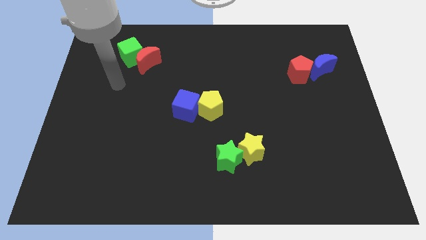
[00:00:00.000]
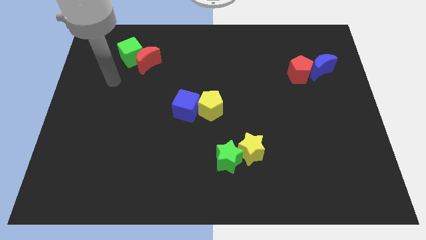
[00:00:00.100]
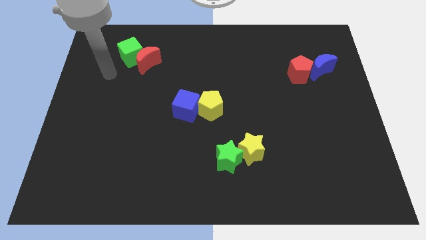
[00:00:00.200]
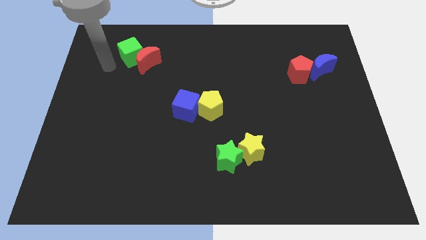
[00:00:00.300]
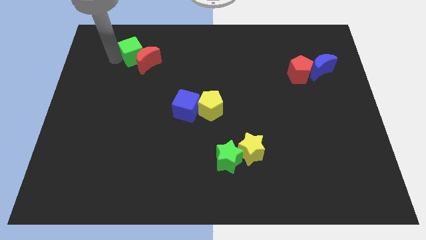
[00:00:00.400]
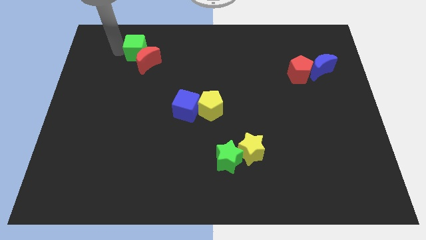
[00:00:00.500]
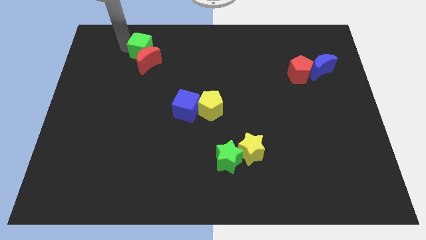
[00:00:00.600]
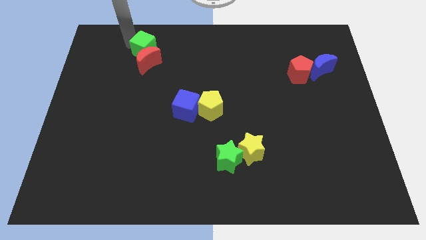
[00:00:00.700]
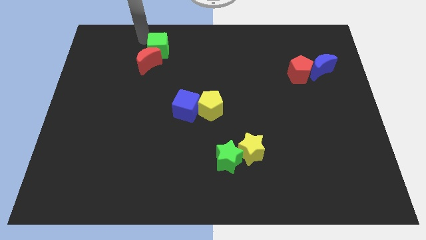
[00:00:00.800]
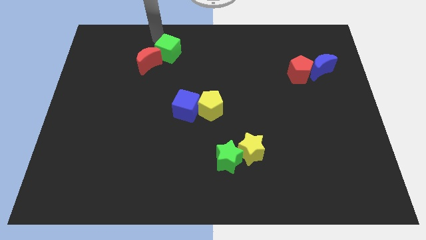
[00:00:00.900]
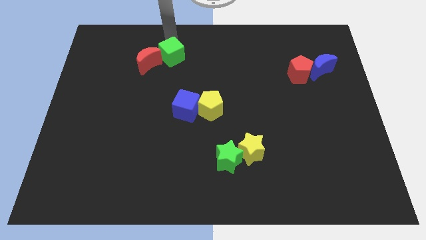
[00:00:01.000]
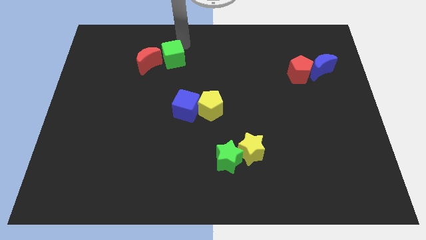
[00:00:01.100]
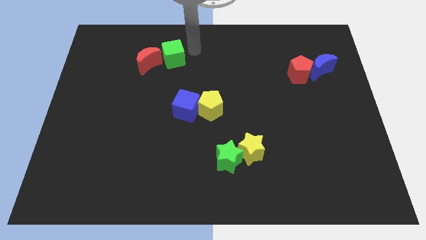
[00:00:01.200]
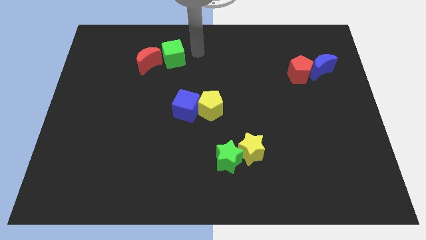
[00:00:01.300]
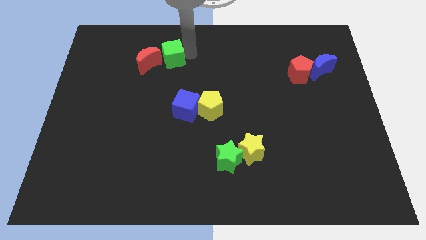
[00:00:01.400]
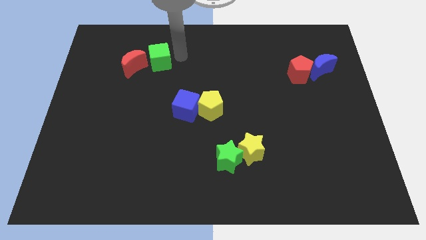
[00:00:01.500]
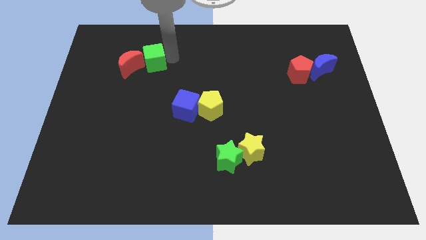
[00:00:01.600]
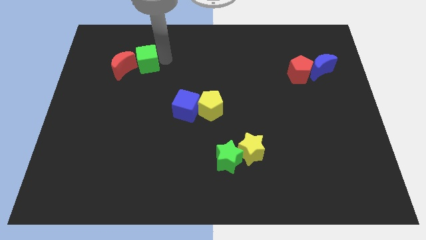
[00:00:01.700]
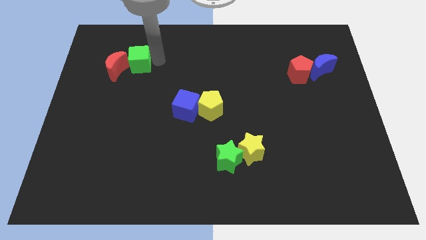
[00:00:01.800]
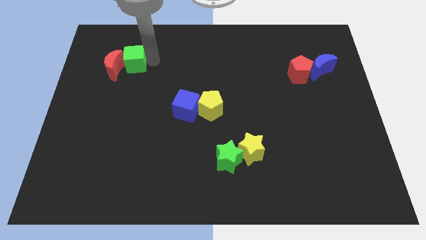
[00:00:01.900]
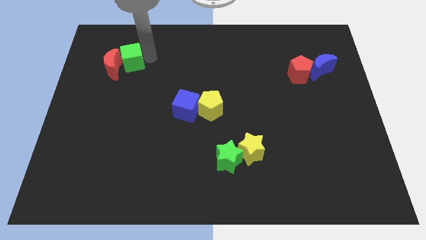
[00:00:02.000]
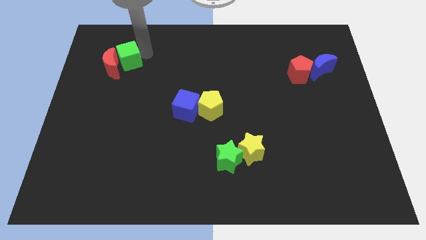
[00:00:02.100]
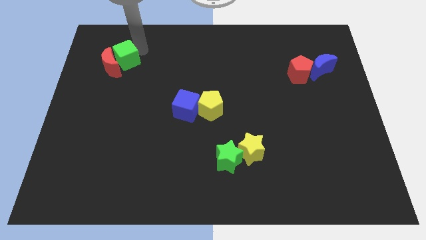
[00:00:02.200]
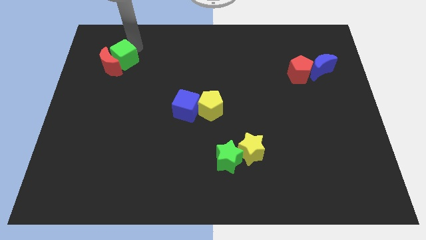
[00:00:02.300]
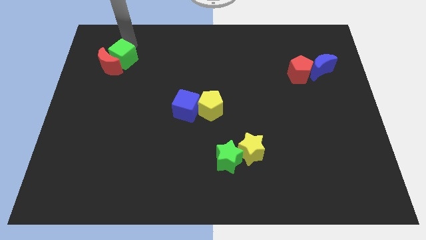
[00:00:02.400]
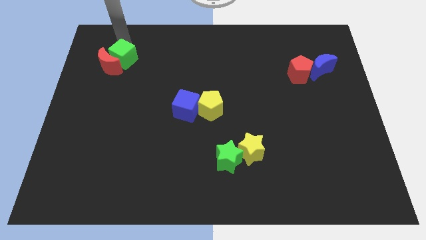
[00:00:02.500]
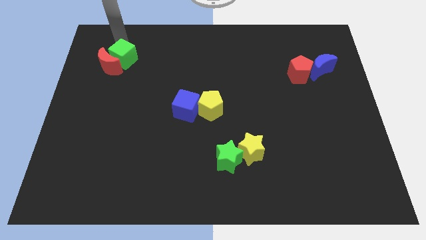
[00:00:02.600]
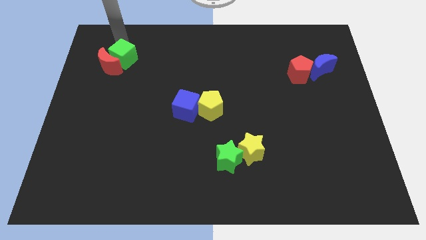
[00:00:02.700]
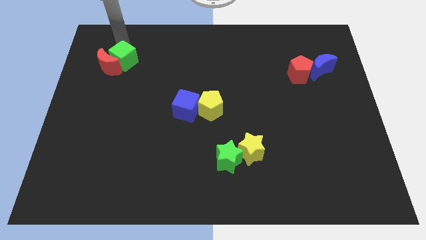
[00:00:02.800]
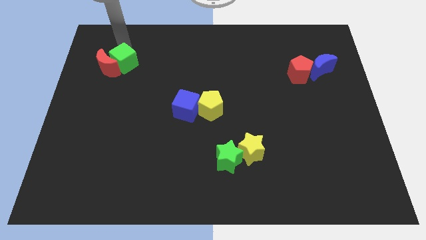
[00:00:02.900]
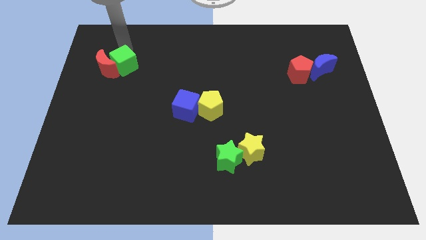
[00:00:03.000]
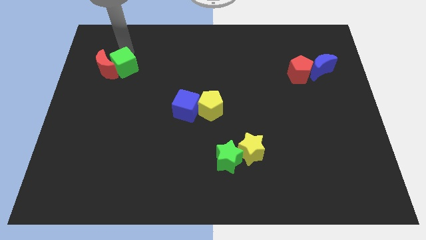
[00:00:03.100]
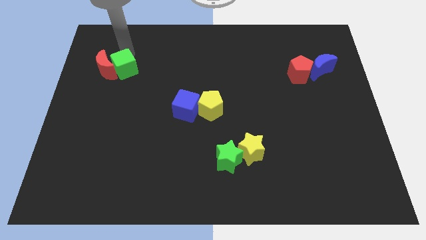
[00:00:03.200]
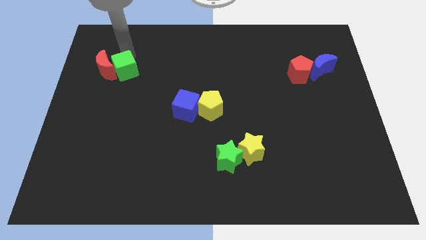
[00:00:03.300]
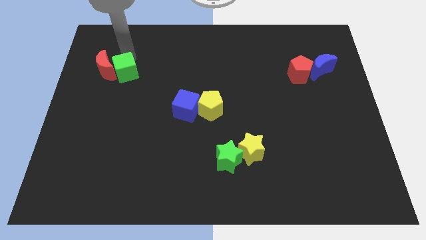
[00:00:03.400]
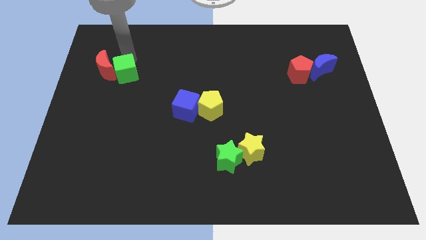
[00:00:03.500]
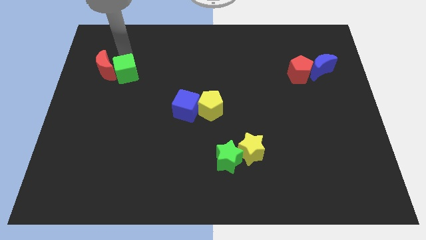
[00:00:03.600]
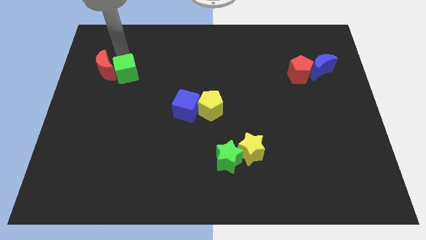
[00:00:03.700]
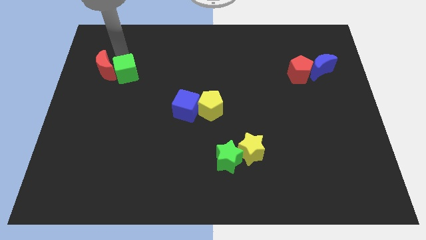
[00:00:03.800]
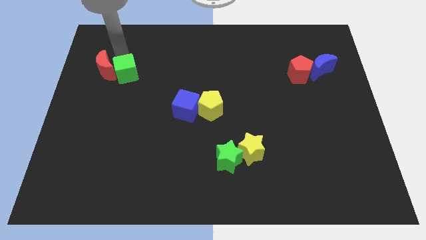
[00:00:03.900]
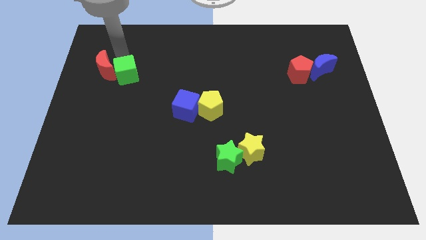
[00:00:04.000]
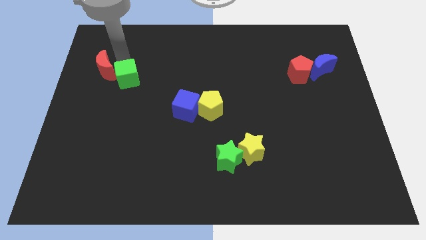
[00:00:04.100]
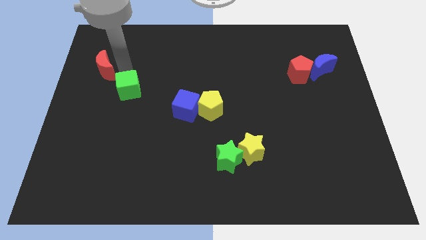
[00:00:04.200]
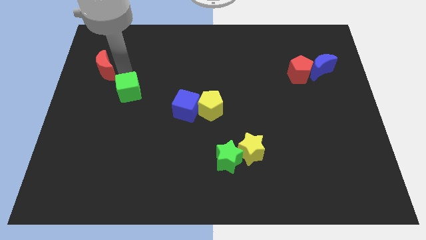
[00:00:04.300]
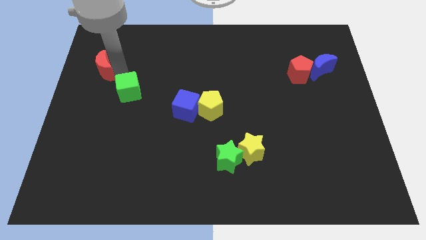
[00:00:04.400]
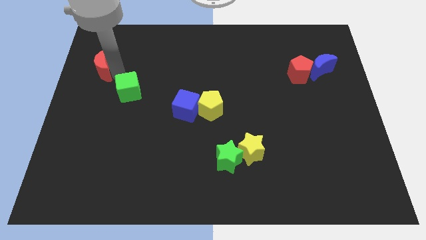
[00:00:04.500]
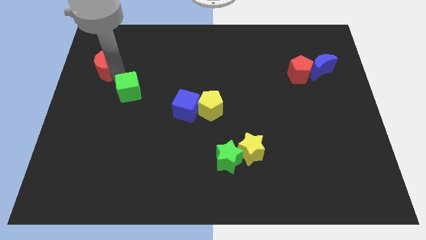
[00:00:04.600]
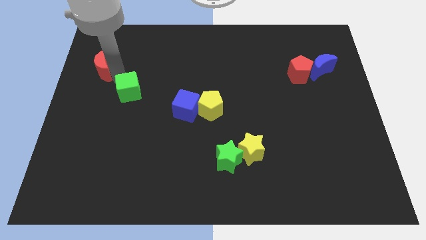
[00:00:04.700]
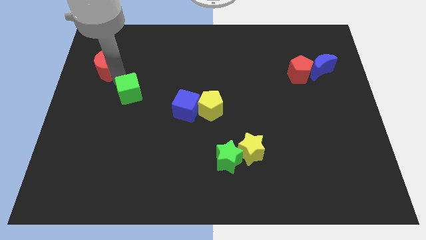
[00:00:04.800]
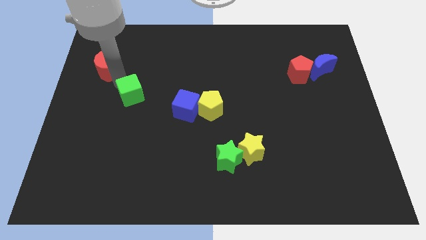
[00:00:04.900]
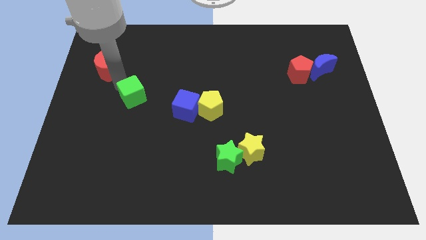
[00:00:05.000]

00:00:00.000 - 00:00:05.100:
slide the green cube just left of the blue cube

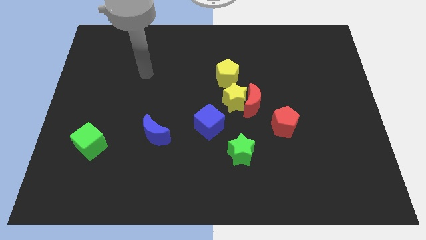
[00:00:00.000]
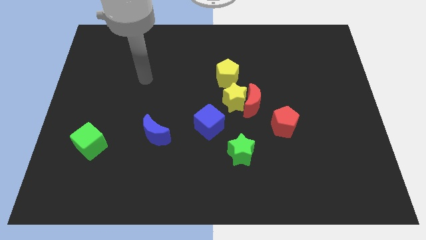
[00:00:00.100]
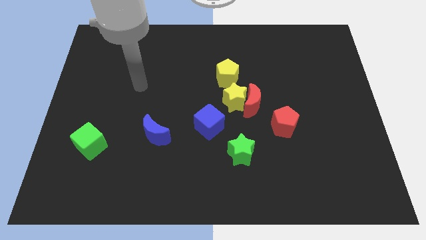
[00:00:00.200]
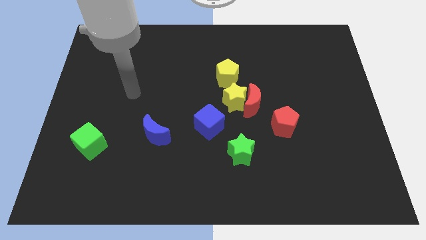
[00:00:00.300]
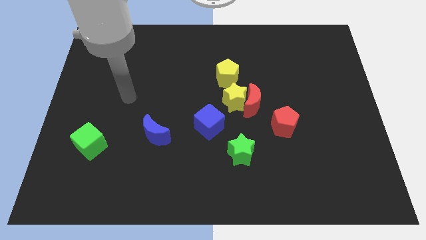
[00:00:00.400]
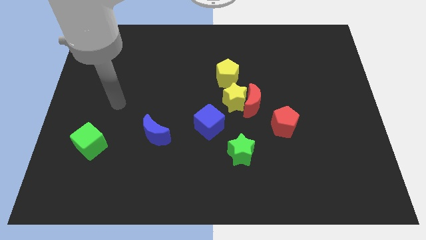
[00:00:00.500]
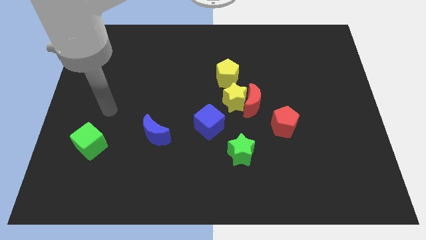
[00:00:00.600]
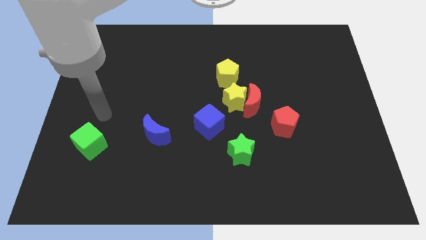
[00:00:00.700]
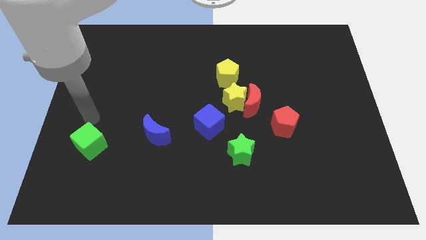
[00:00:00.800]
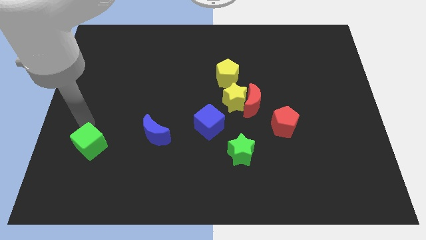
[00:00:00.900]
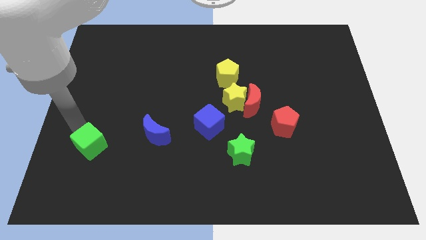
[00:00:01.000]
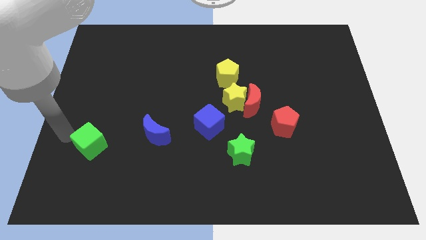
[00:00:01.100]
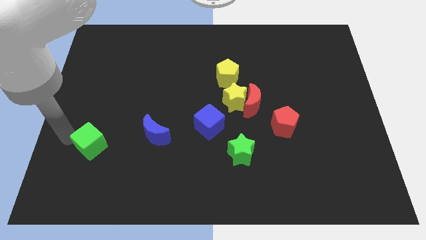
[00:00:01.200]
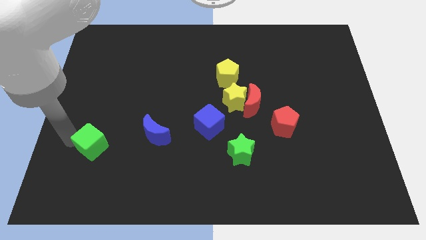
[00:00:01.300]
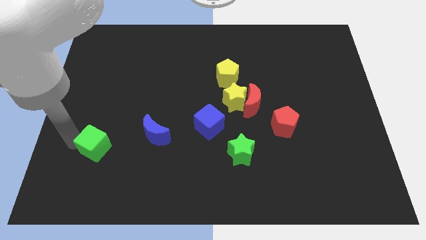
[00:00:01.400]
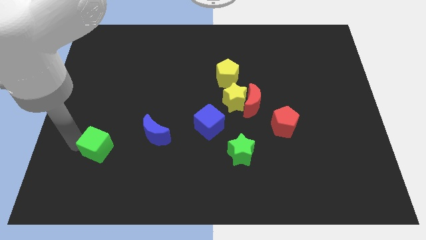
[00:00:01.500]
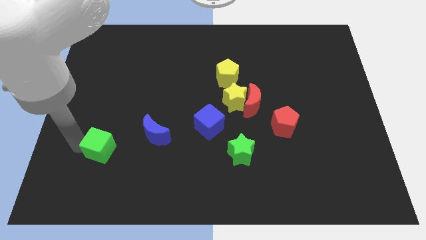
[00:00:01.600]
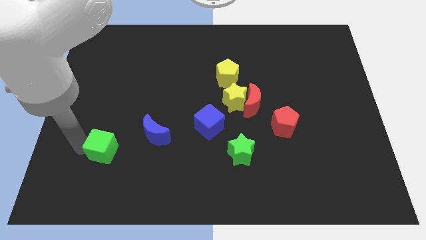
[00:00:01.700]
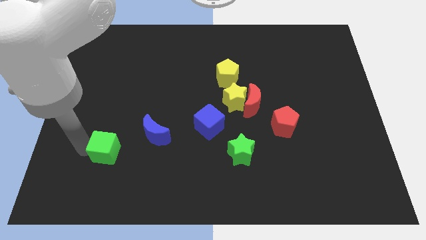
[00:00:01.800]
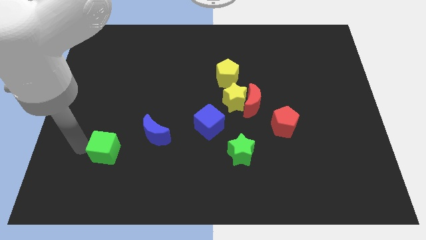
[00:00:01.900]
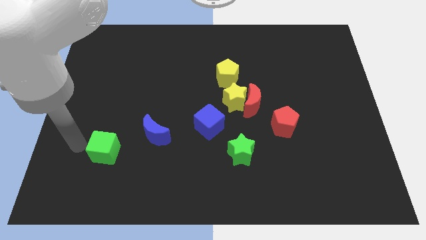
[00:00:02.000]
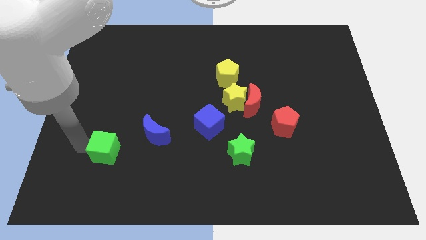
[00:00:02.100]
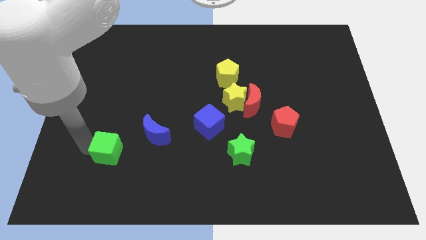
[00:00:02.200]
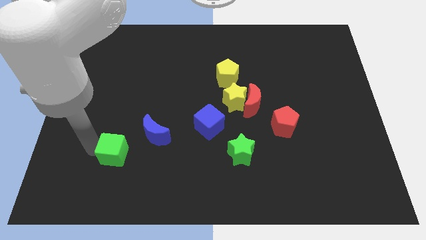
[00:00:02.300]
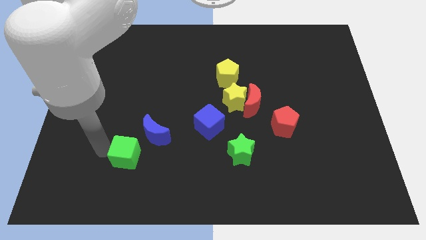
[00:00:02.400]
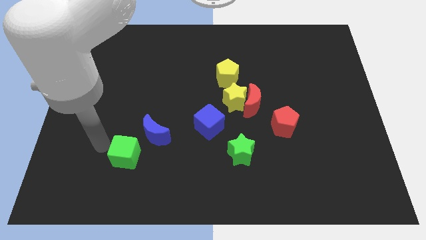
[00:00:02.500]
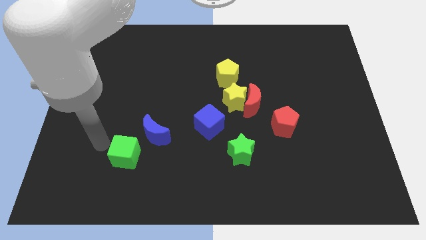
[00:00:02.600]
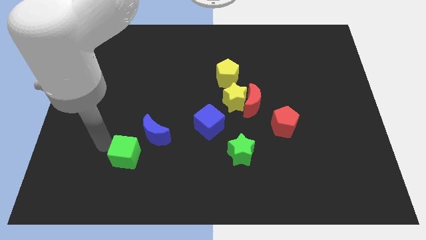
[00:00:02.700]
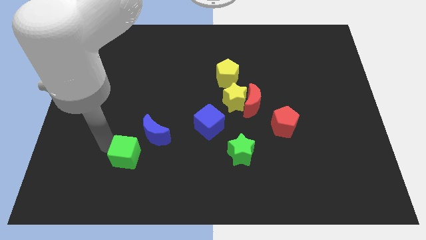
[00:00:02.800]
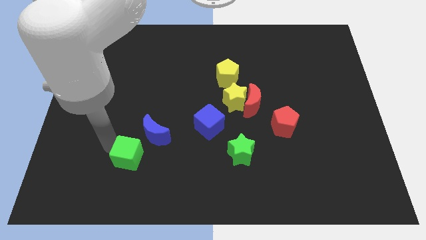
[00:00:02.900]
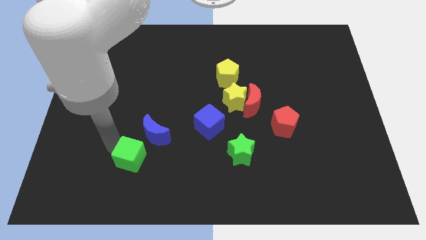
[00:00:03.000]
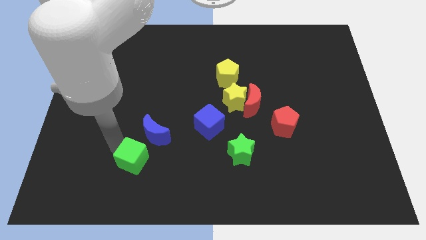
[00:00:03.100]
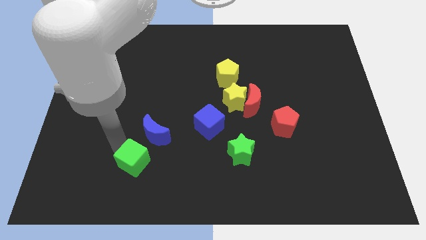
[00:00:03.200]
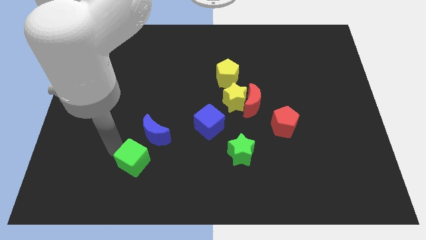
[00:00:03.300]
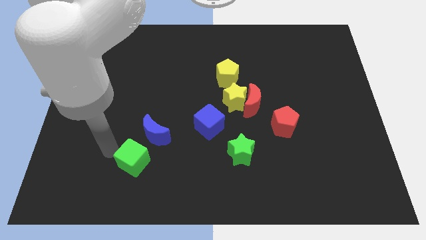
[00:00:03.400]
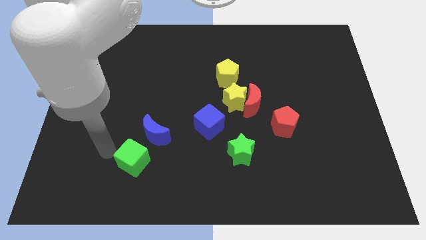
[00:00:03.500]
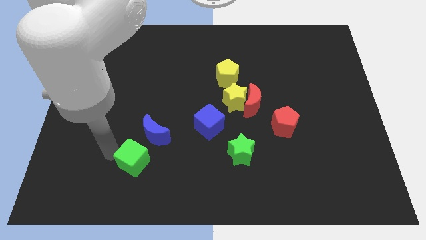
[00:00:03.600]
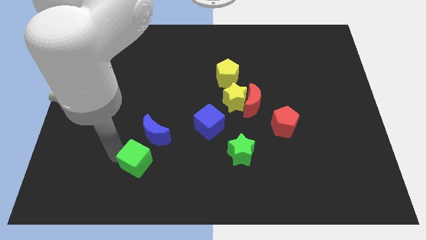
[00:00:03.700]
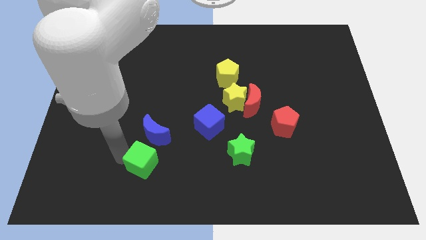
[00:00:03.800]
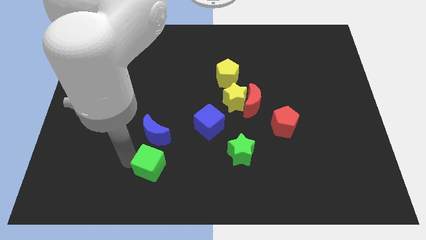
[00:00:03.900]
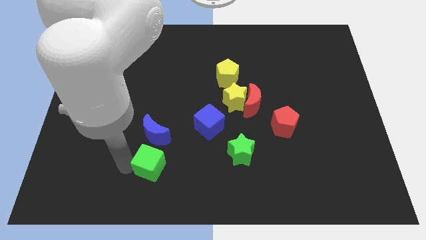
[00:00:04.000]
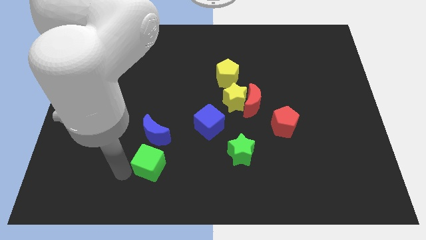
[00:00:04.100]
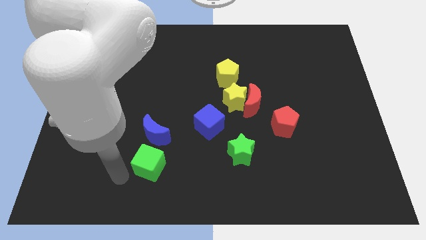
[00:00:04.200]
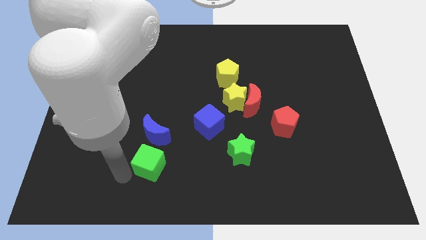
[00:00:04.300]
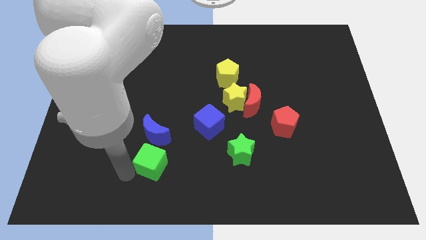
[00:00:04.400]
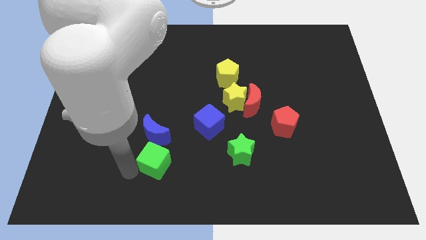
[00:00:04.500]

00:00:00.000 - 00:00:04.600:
push the green cube to the bottom right side of the blue moon
